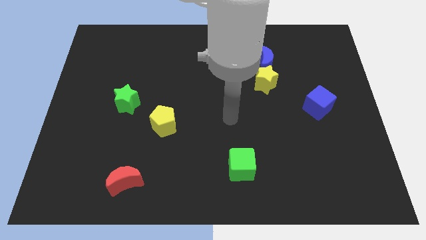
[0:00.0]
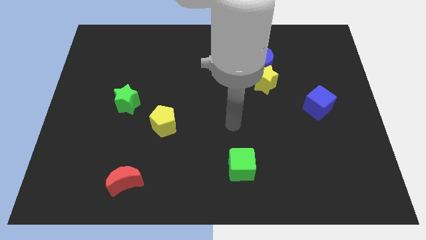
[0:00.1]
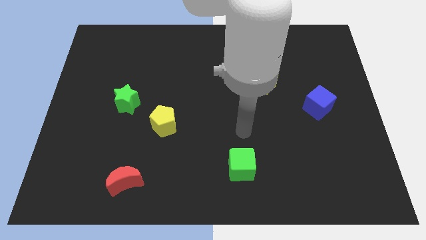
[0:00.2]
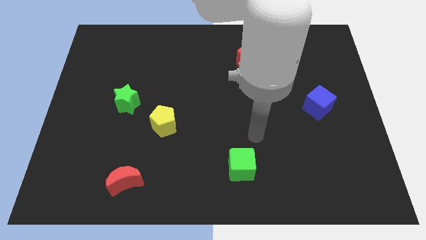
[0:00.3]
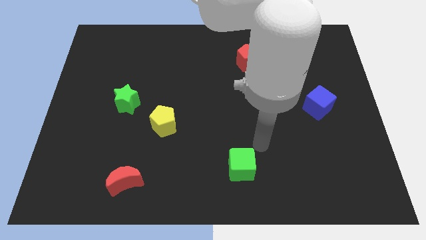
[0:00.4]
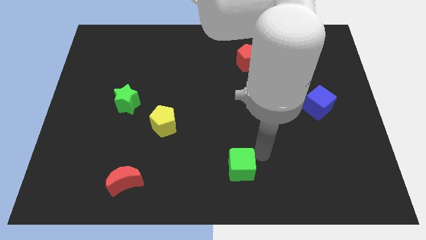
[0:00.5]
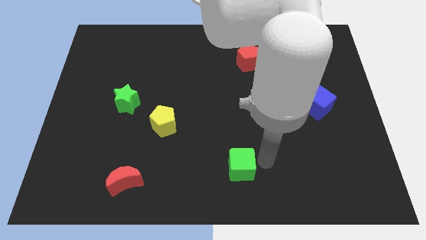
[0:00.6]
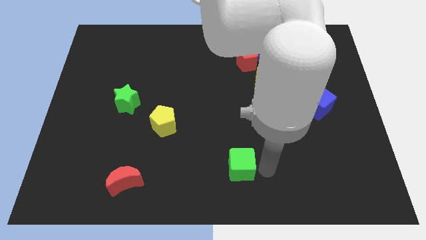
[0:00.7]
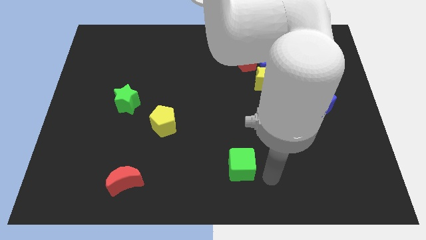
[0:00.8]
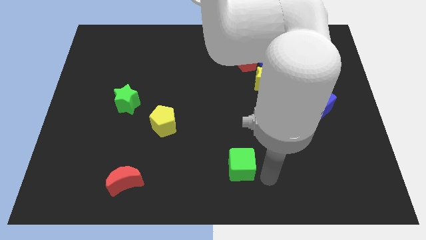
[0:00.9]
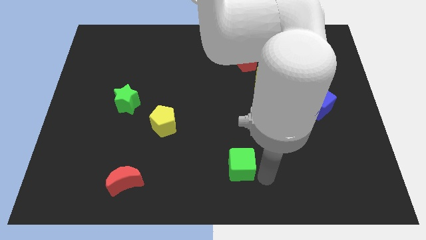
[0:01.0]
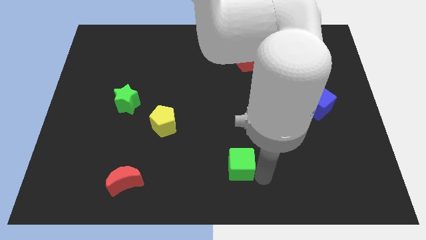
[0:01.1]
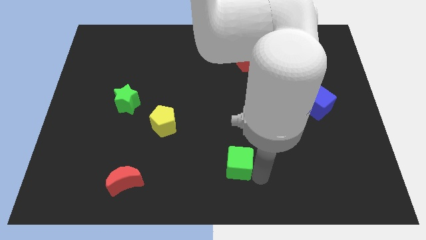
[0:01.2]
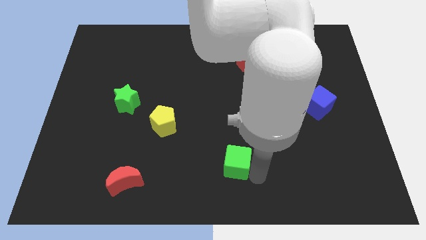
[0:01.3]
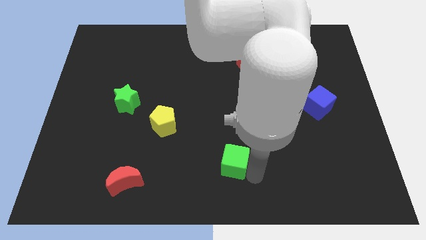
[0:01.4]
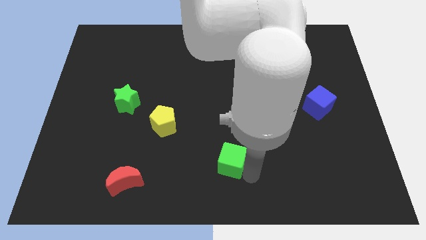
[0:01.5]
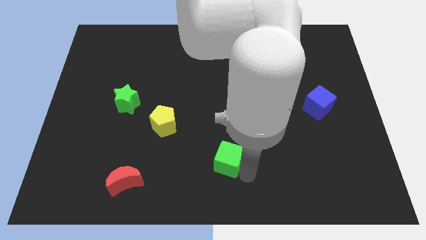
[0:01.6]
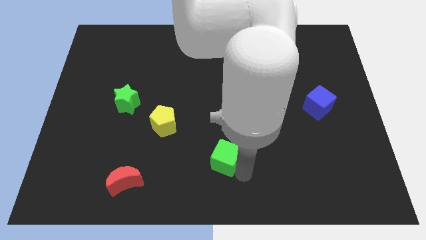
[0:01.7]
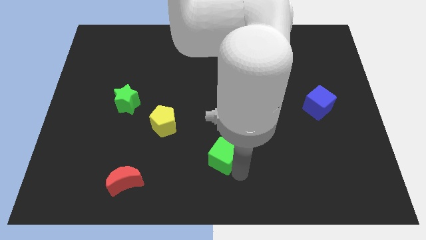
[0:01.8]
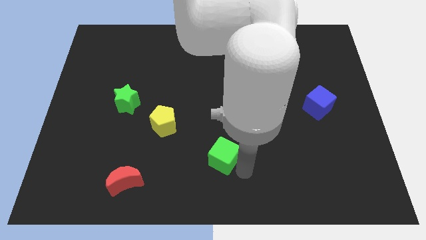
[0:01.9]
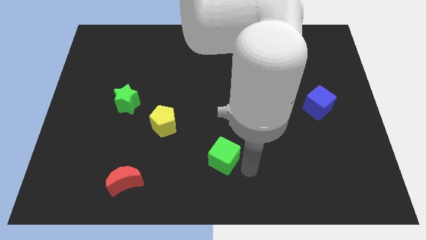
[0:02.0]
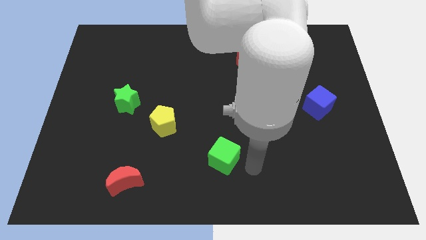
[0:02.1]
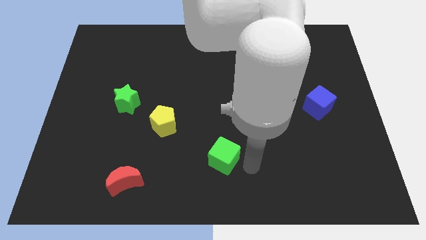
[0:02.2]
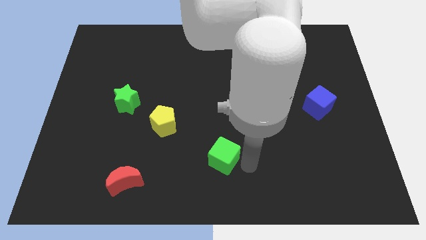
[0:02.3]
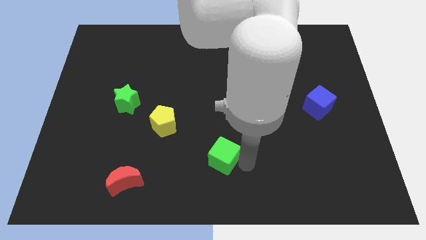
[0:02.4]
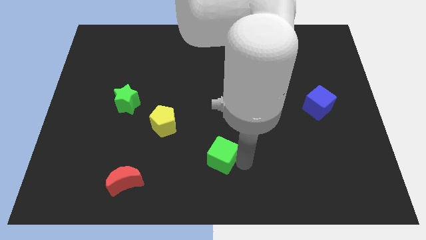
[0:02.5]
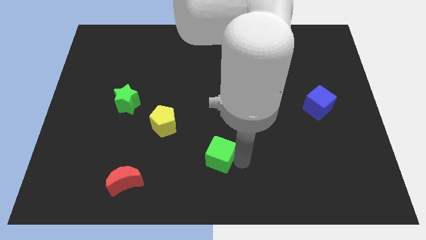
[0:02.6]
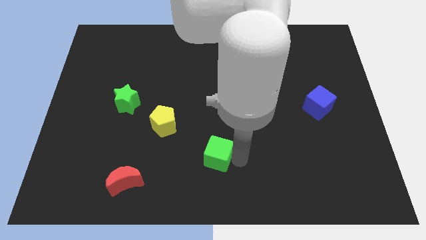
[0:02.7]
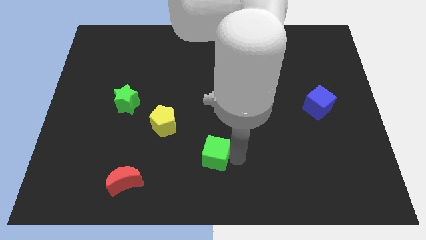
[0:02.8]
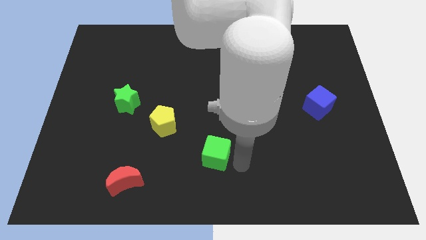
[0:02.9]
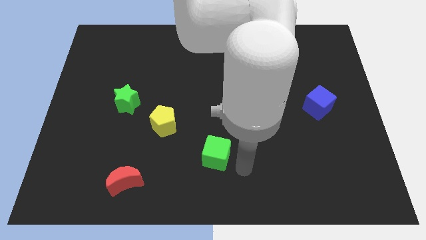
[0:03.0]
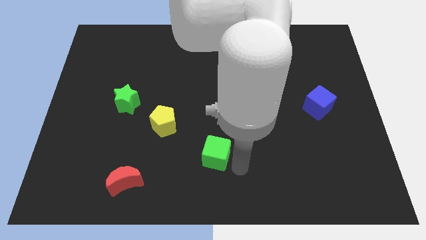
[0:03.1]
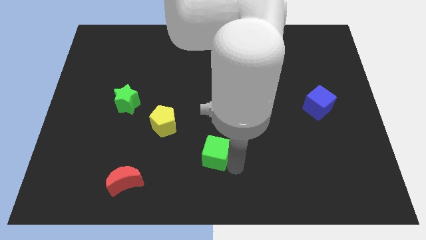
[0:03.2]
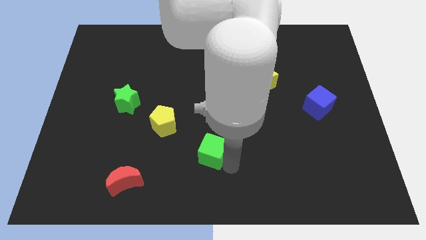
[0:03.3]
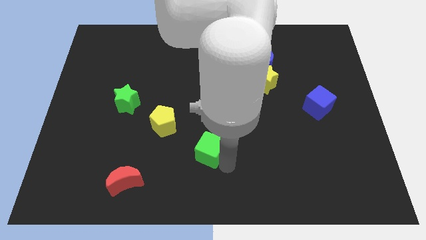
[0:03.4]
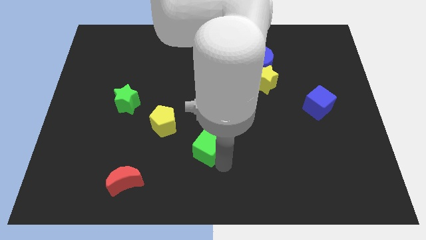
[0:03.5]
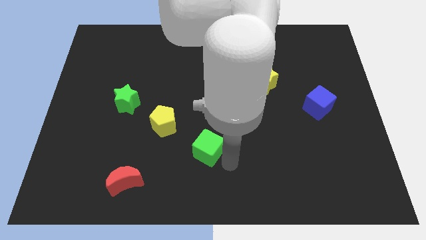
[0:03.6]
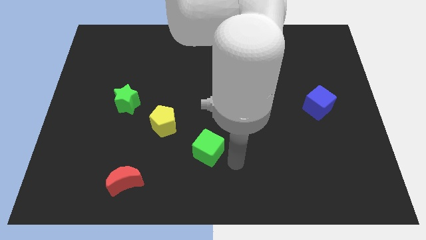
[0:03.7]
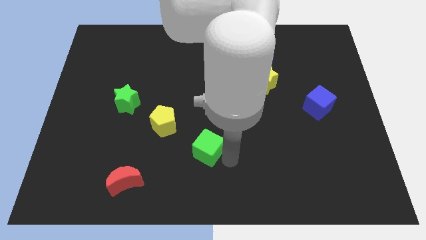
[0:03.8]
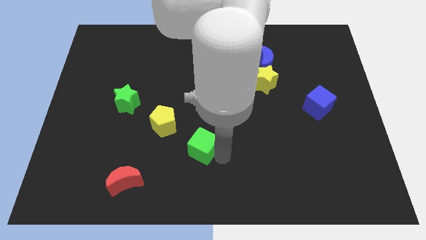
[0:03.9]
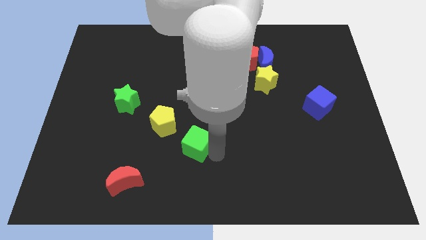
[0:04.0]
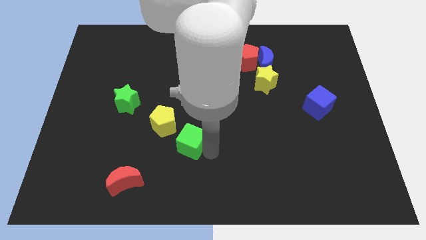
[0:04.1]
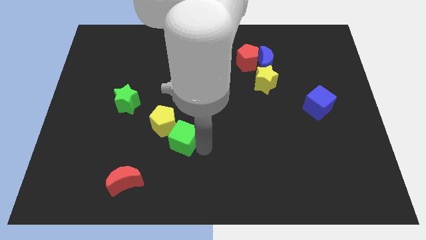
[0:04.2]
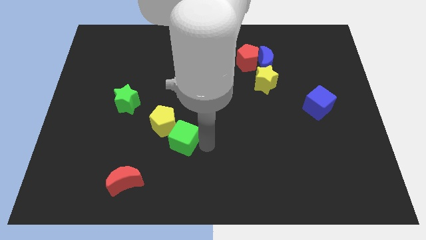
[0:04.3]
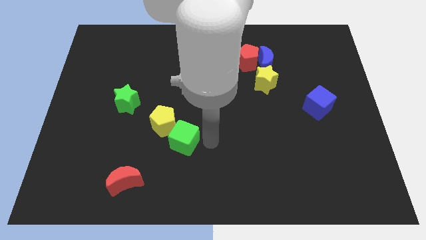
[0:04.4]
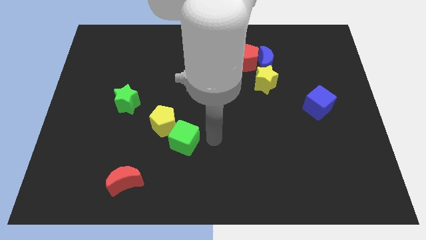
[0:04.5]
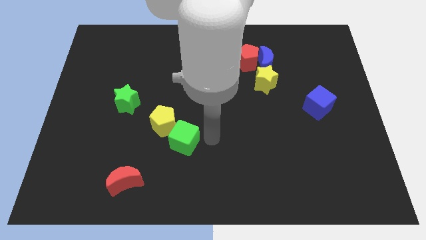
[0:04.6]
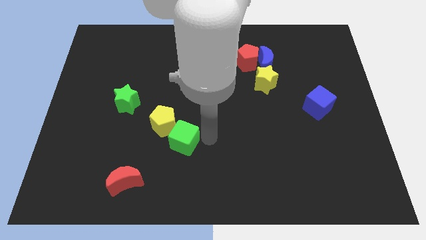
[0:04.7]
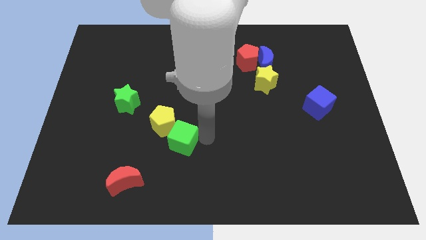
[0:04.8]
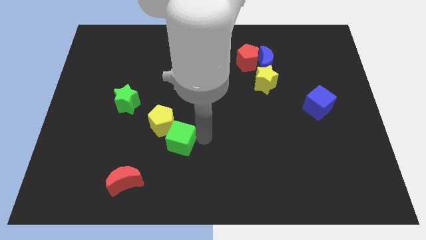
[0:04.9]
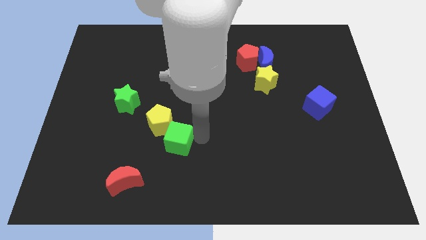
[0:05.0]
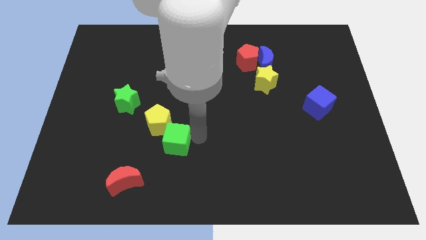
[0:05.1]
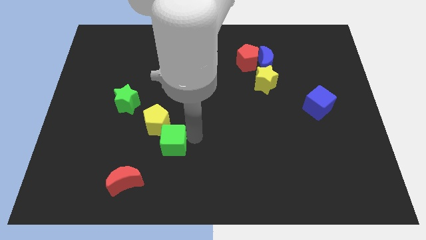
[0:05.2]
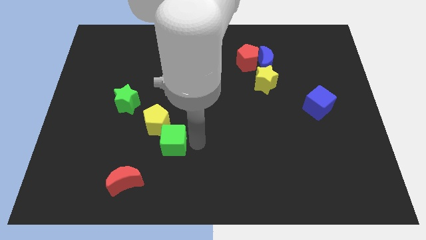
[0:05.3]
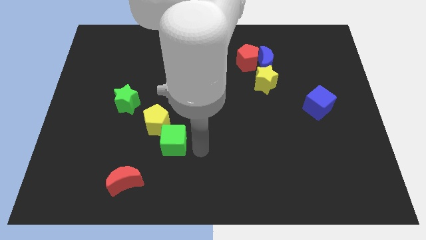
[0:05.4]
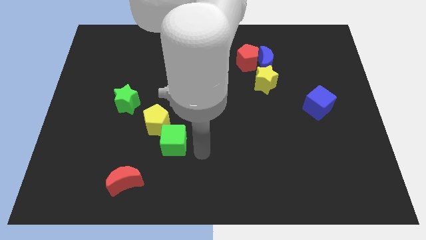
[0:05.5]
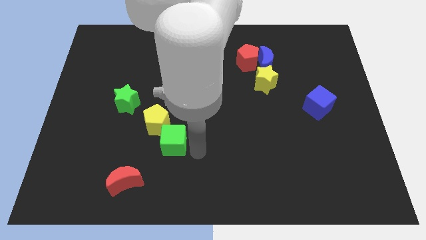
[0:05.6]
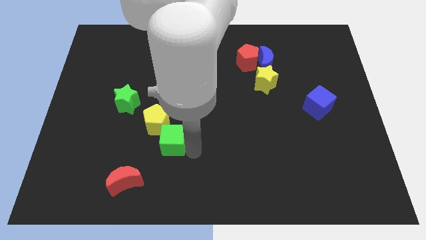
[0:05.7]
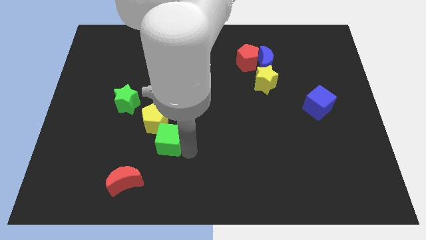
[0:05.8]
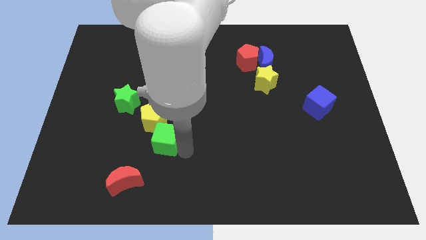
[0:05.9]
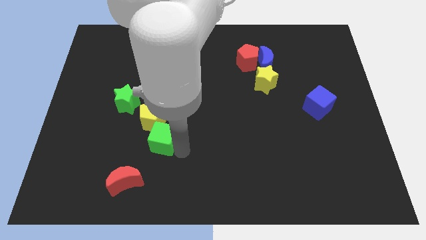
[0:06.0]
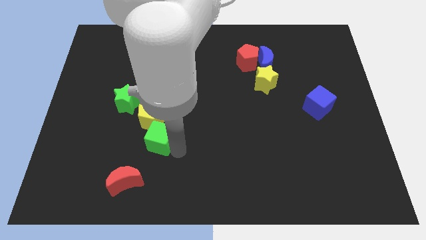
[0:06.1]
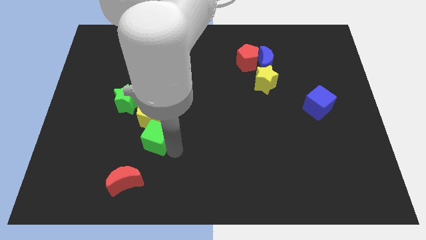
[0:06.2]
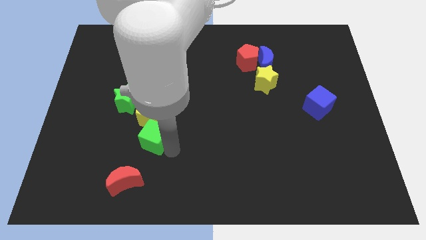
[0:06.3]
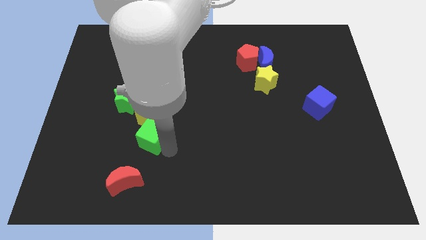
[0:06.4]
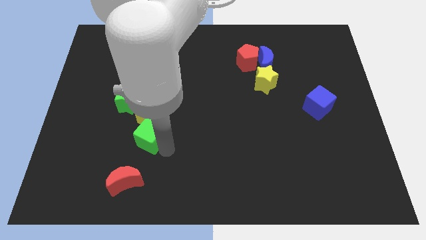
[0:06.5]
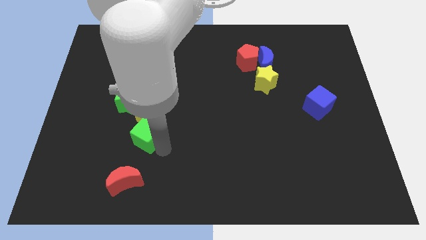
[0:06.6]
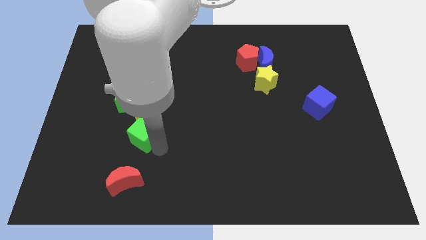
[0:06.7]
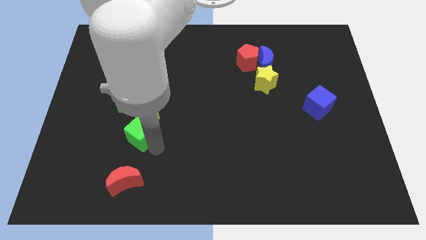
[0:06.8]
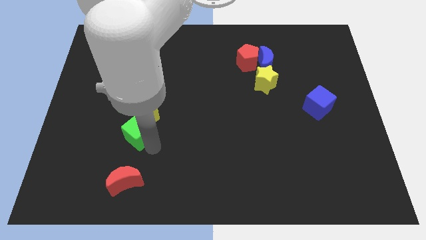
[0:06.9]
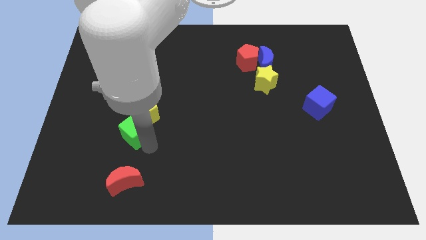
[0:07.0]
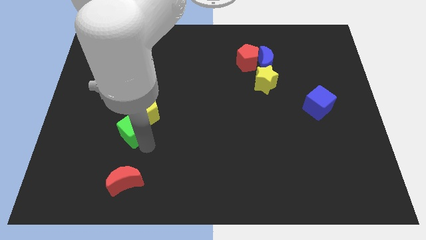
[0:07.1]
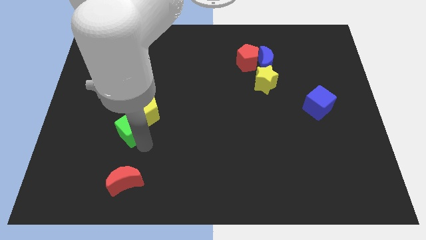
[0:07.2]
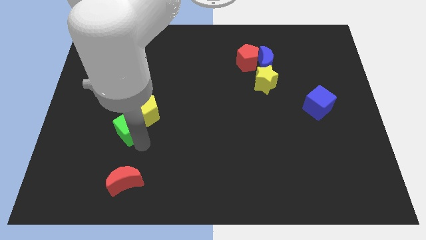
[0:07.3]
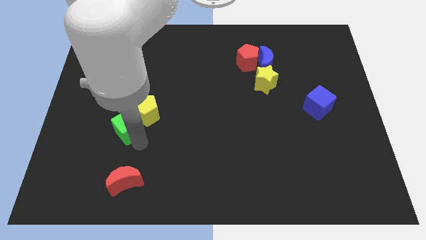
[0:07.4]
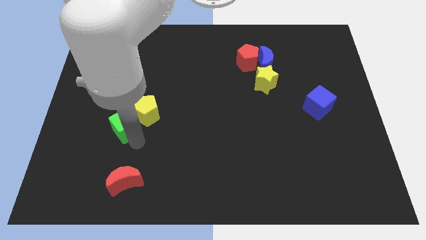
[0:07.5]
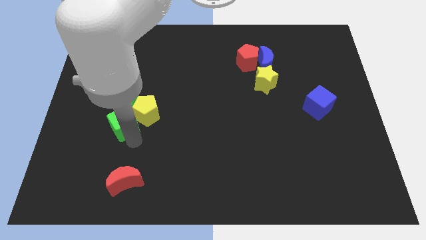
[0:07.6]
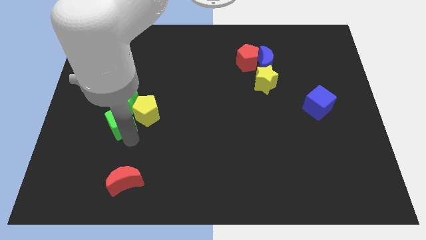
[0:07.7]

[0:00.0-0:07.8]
slide the green cube to the green star
